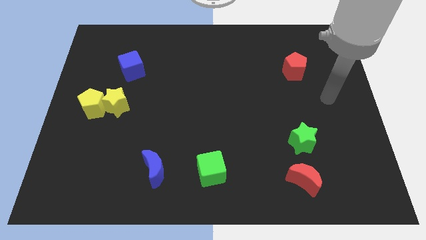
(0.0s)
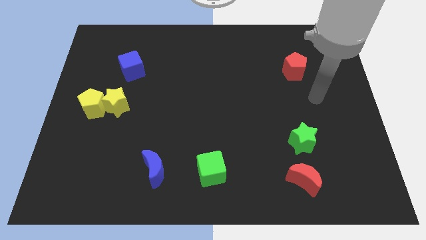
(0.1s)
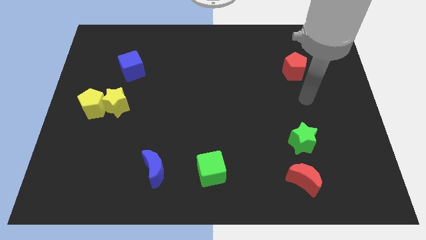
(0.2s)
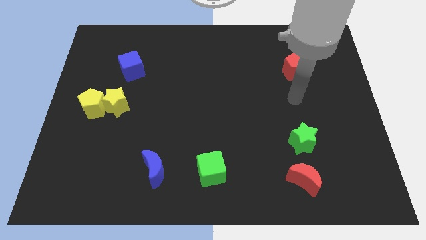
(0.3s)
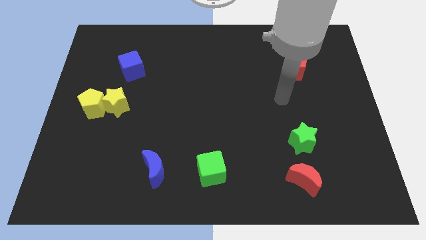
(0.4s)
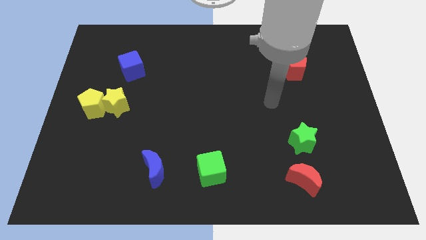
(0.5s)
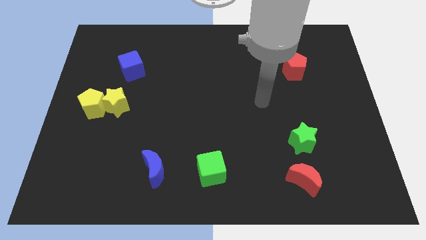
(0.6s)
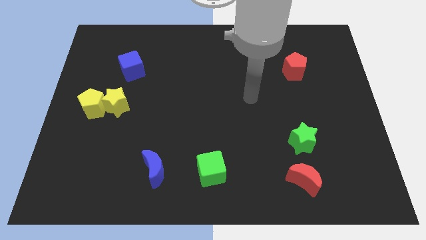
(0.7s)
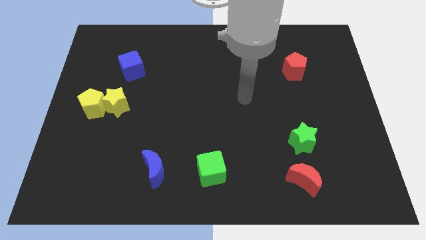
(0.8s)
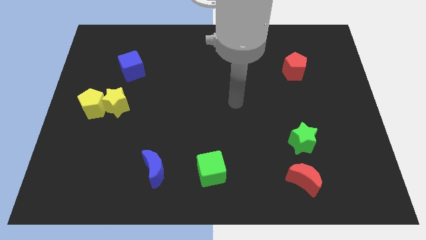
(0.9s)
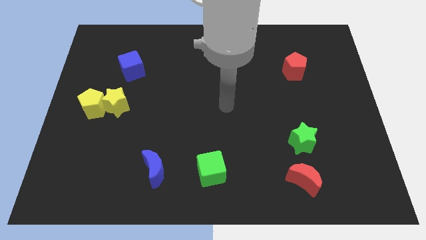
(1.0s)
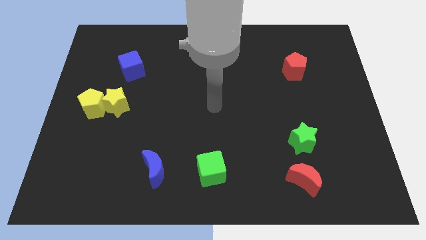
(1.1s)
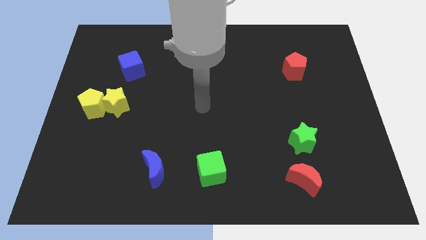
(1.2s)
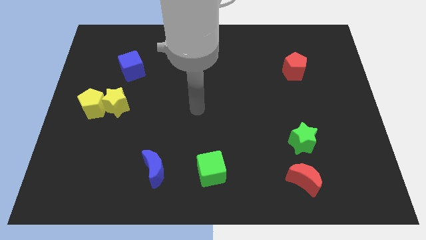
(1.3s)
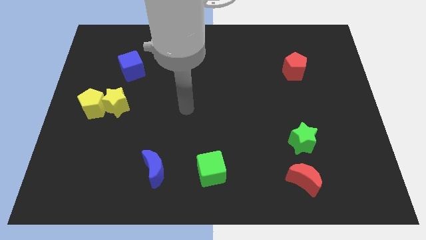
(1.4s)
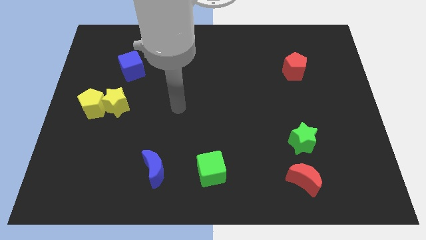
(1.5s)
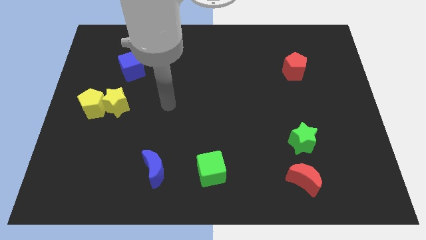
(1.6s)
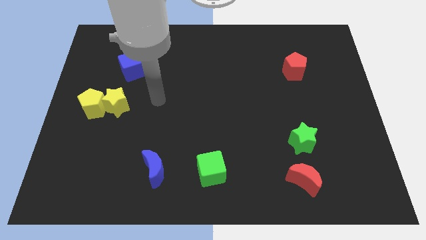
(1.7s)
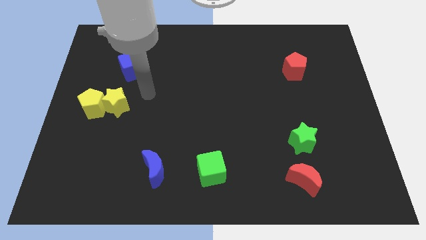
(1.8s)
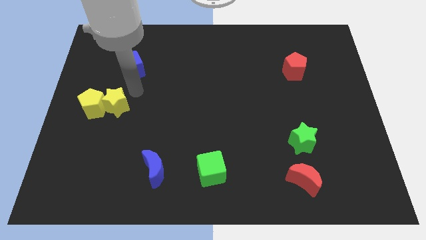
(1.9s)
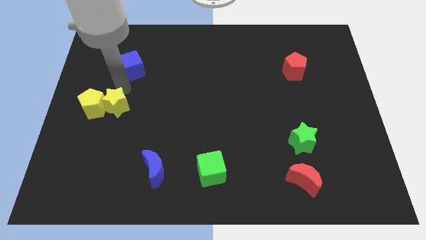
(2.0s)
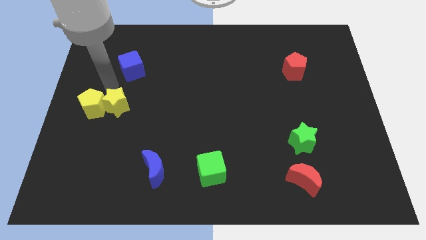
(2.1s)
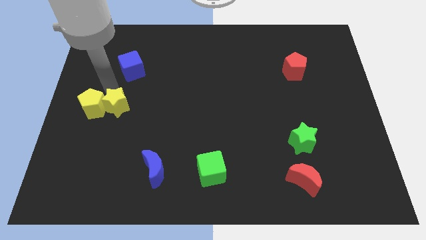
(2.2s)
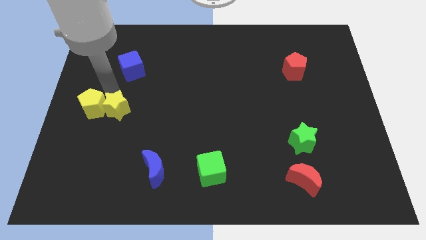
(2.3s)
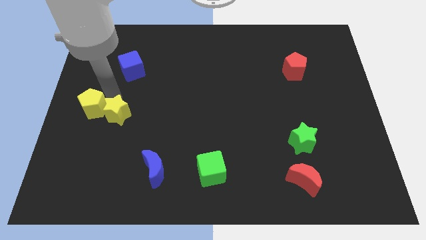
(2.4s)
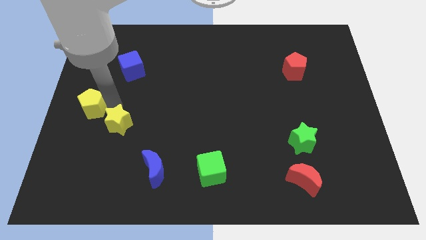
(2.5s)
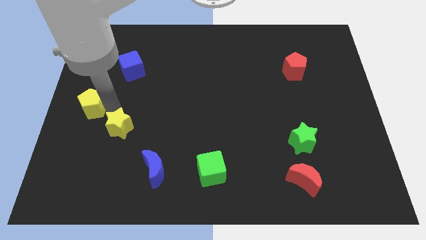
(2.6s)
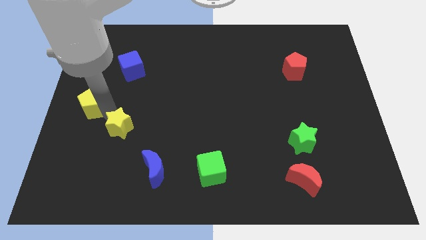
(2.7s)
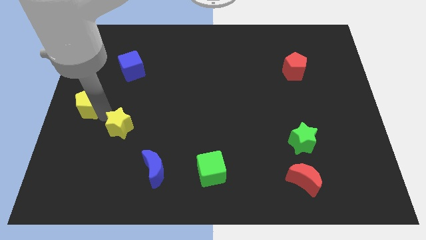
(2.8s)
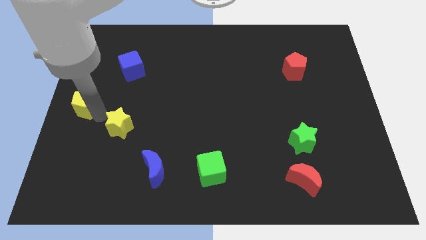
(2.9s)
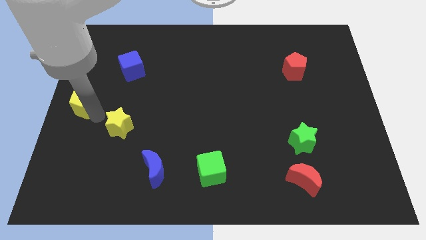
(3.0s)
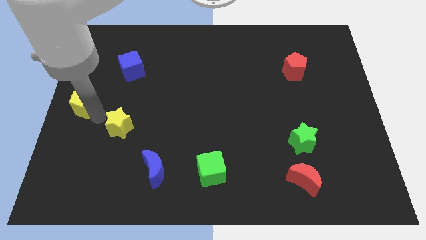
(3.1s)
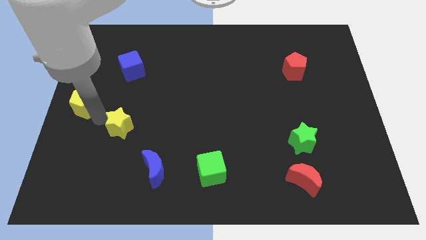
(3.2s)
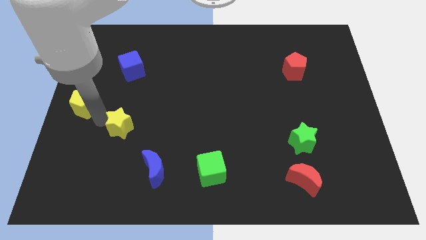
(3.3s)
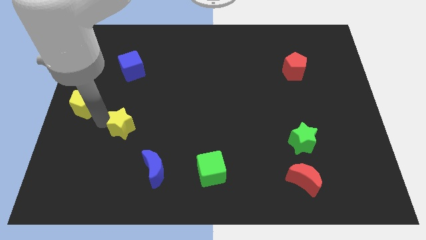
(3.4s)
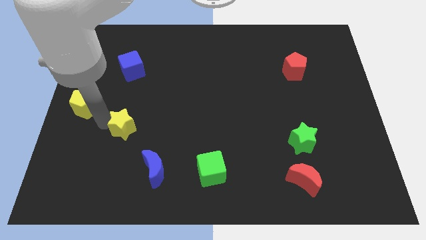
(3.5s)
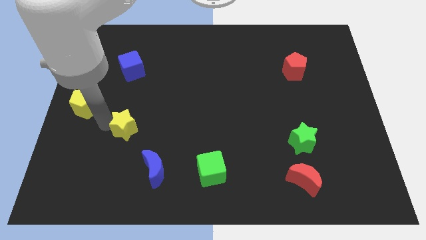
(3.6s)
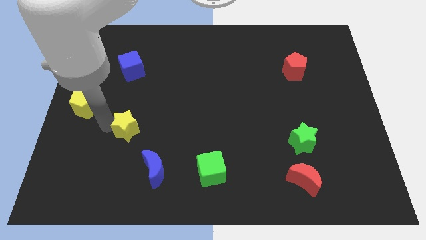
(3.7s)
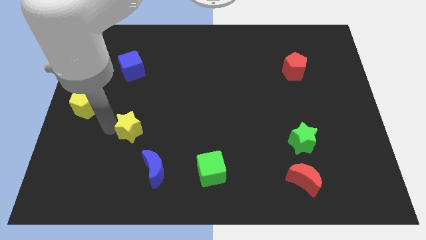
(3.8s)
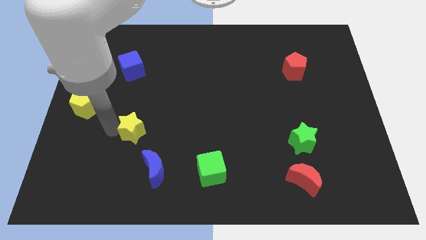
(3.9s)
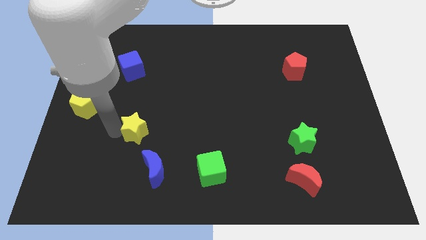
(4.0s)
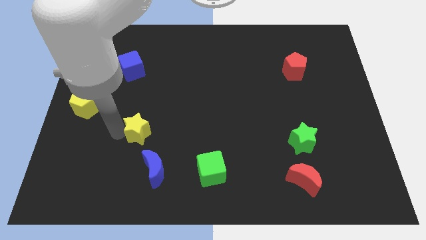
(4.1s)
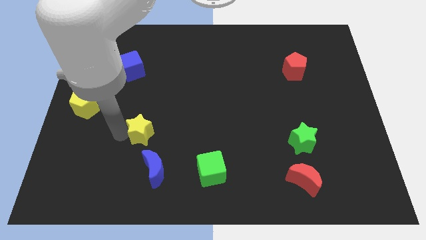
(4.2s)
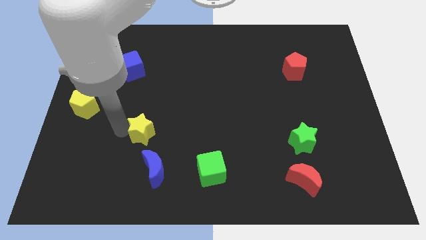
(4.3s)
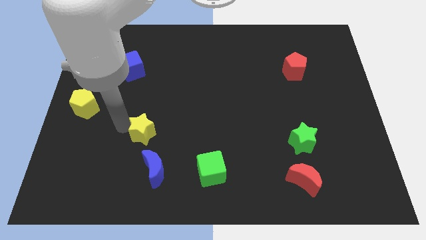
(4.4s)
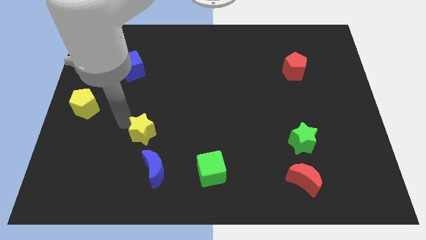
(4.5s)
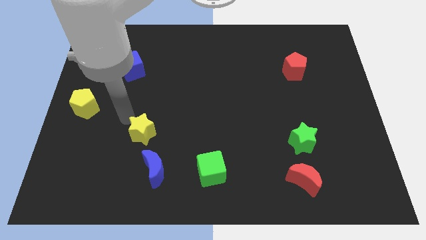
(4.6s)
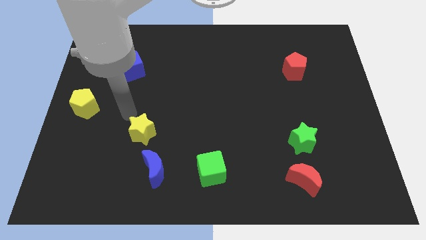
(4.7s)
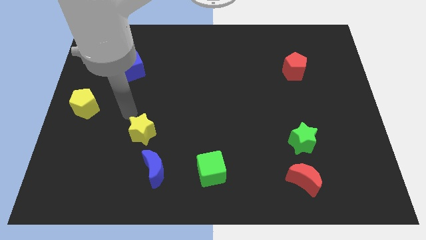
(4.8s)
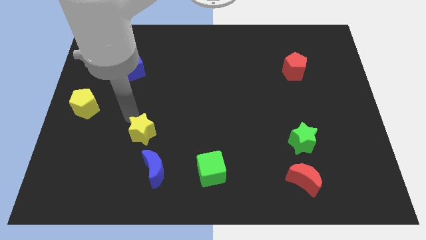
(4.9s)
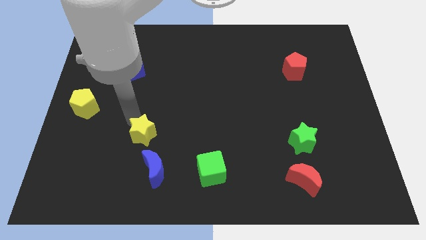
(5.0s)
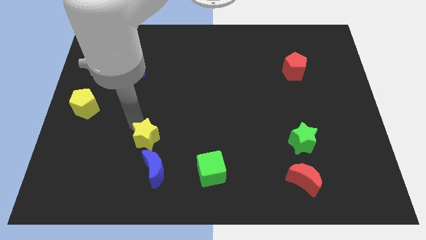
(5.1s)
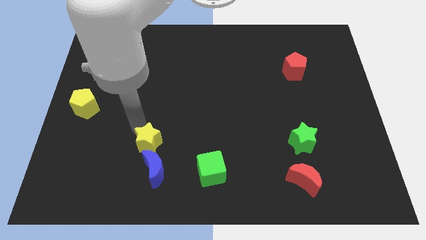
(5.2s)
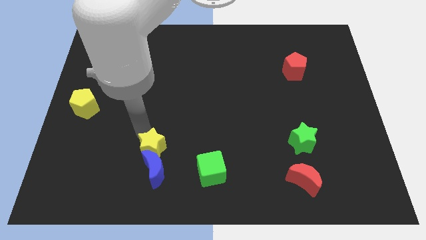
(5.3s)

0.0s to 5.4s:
put the yellow star towards the blue moon

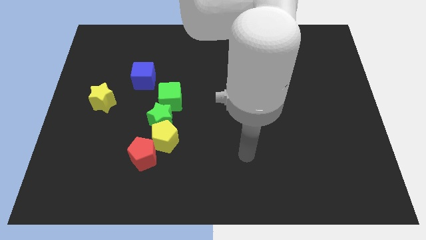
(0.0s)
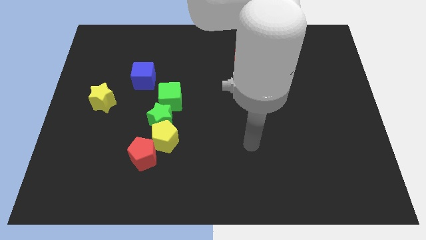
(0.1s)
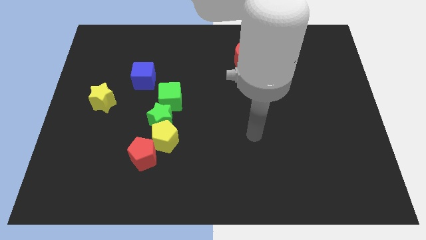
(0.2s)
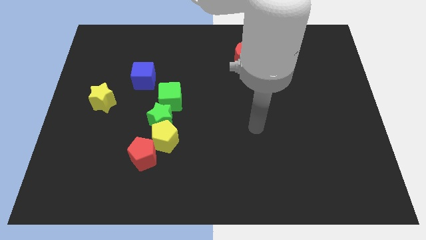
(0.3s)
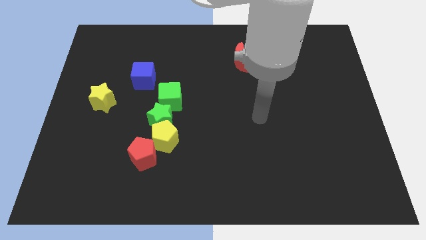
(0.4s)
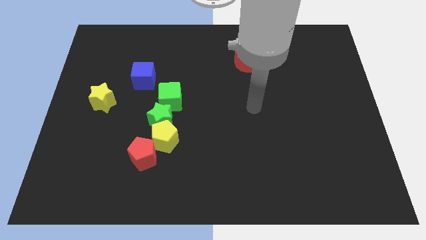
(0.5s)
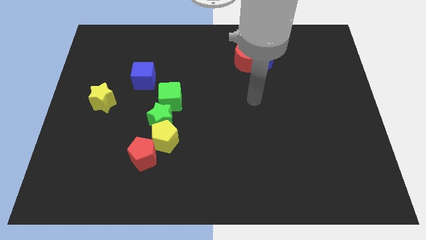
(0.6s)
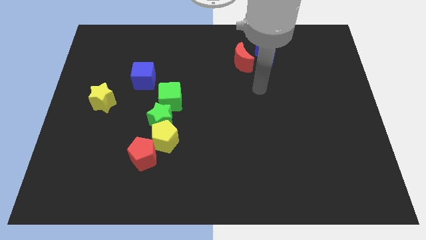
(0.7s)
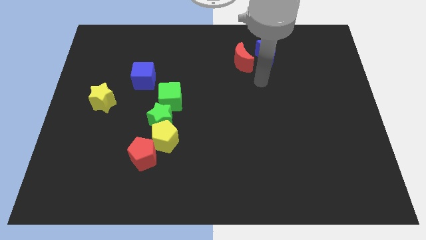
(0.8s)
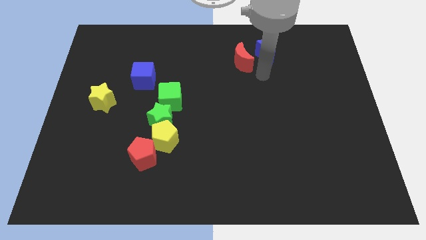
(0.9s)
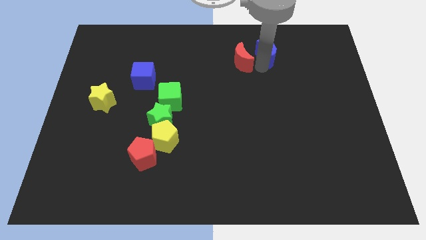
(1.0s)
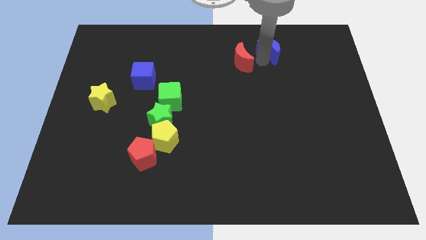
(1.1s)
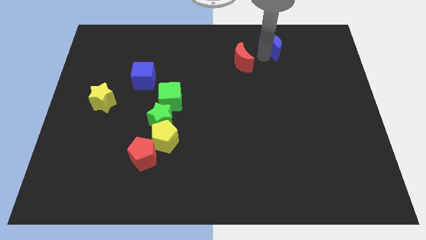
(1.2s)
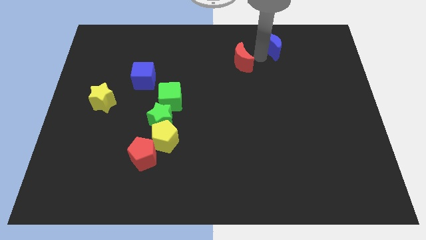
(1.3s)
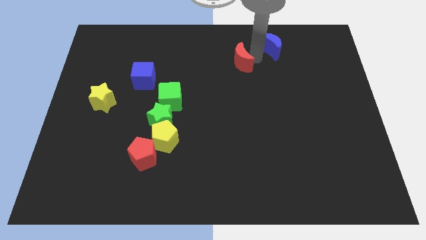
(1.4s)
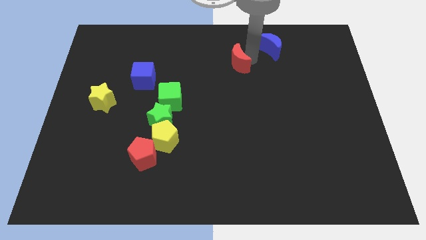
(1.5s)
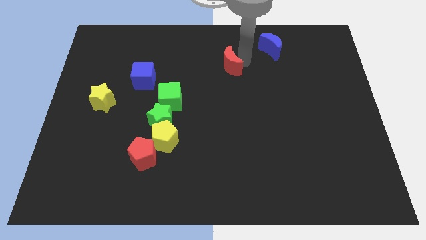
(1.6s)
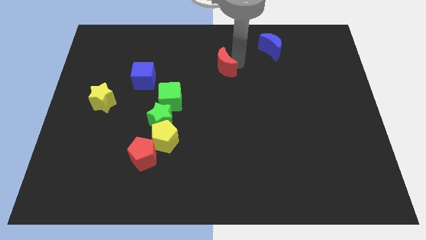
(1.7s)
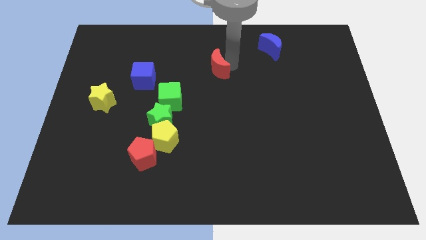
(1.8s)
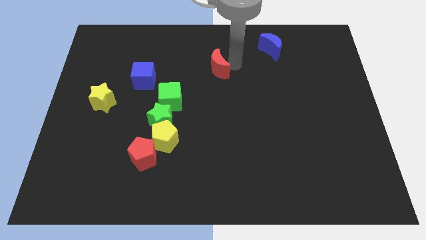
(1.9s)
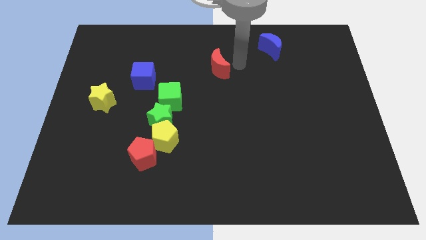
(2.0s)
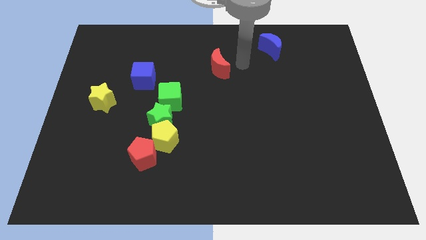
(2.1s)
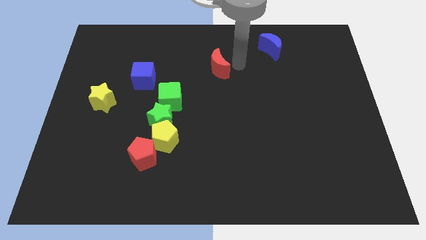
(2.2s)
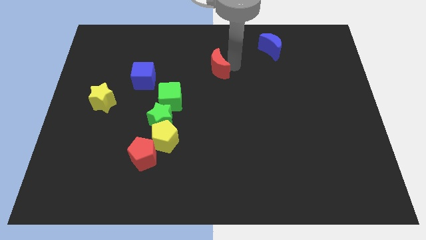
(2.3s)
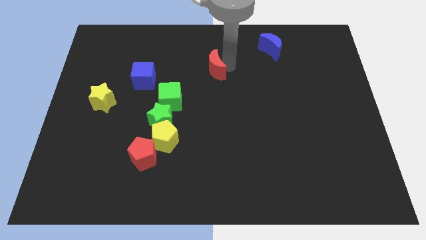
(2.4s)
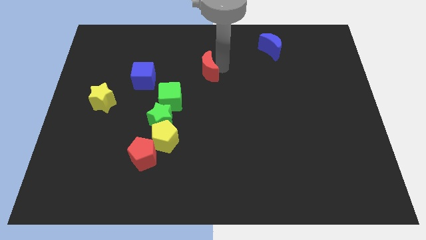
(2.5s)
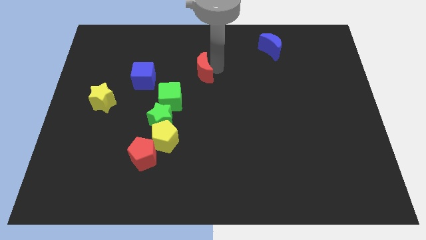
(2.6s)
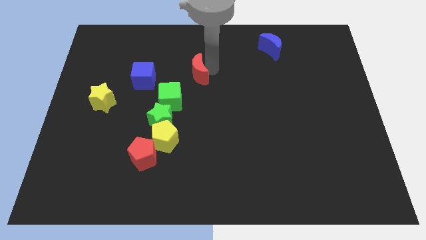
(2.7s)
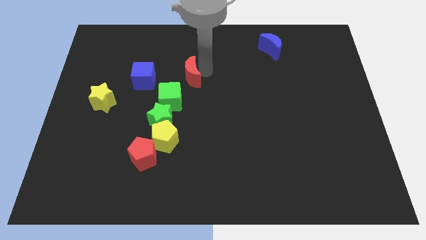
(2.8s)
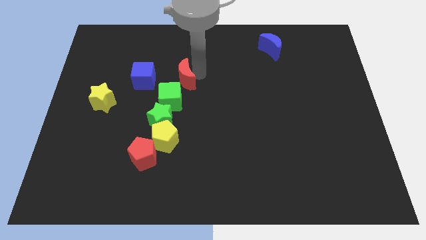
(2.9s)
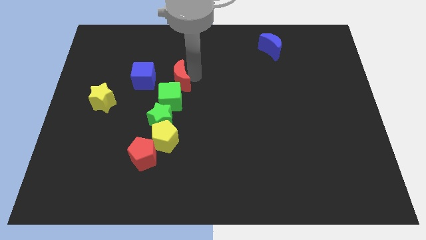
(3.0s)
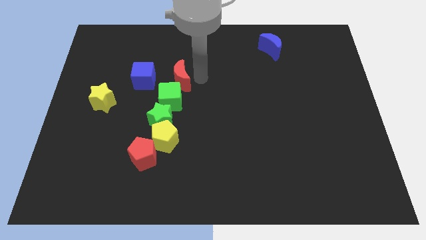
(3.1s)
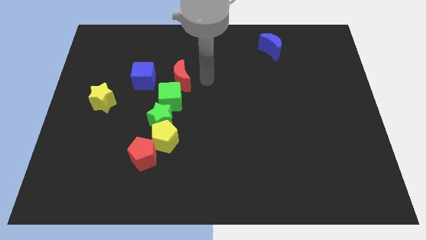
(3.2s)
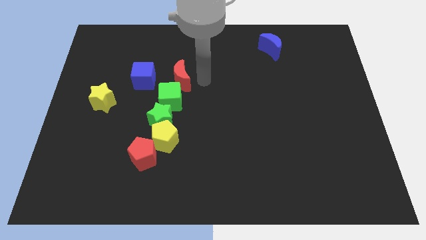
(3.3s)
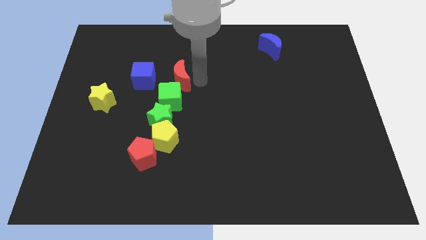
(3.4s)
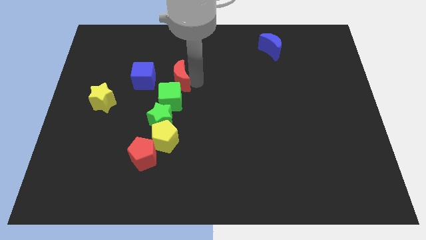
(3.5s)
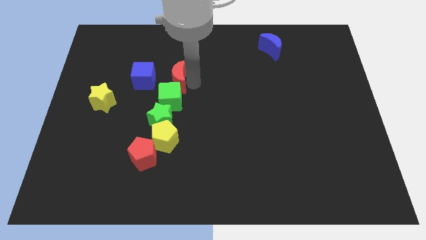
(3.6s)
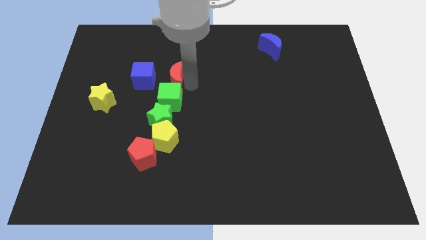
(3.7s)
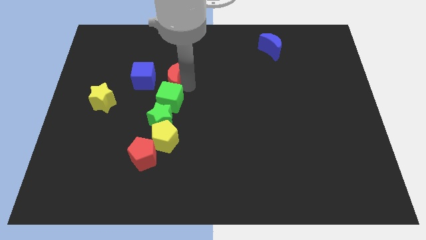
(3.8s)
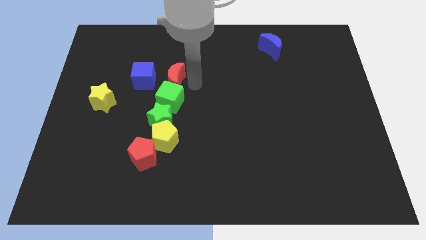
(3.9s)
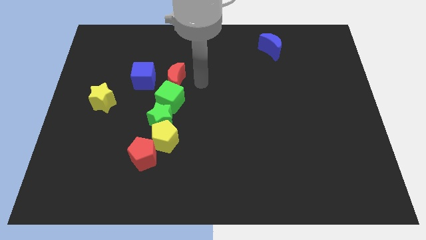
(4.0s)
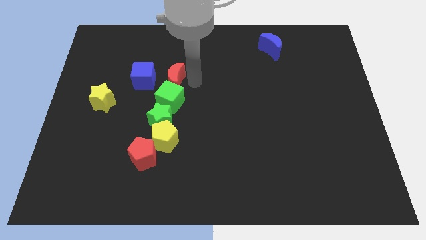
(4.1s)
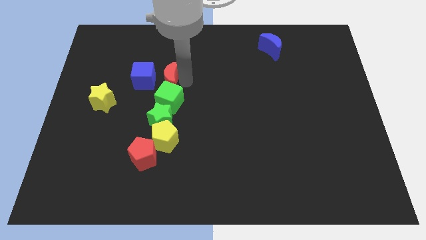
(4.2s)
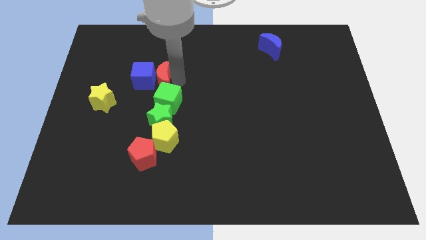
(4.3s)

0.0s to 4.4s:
put the red moon close to the blue cube
